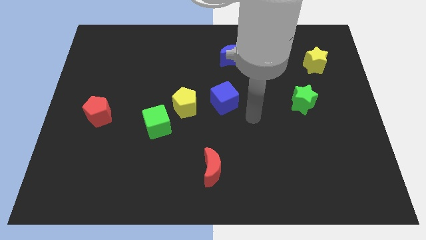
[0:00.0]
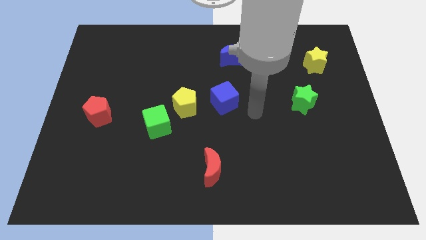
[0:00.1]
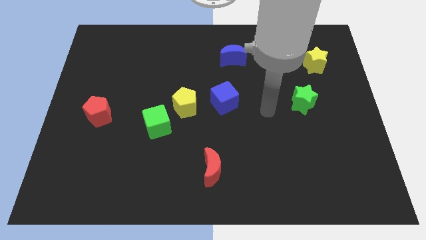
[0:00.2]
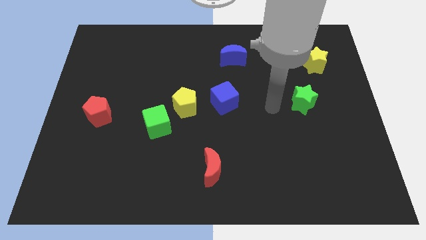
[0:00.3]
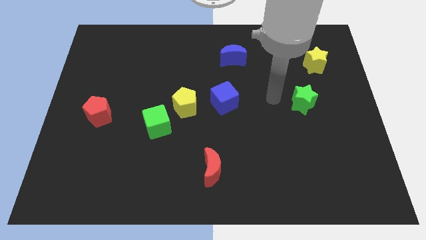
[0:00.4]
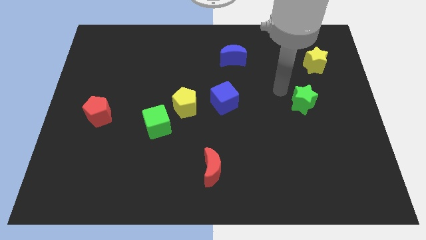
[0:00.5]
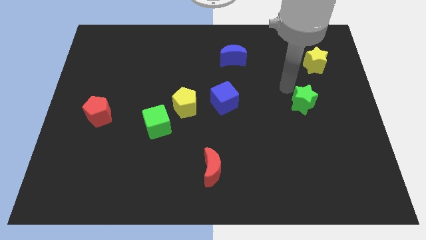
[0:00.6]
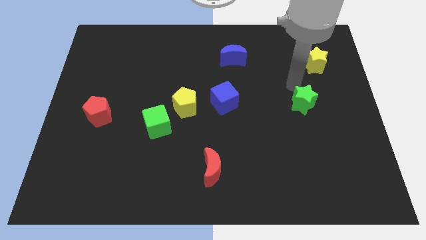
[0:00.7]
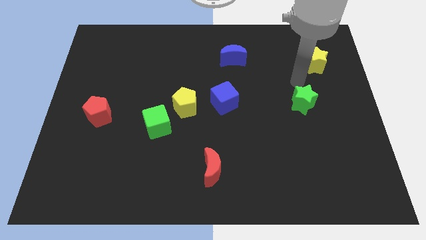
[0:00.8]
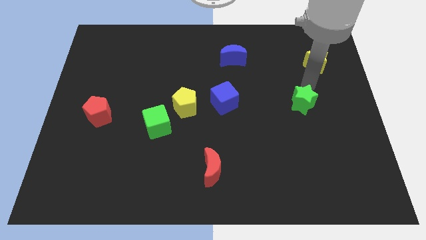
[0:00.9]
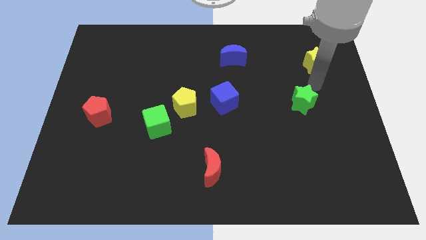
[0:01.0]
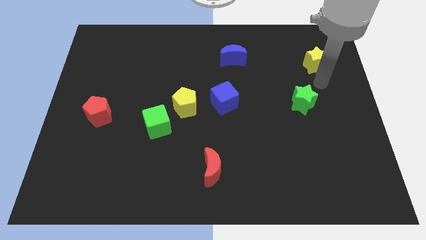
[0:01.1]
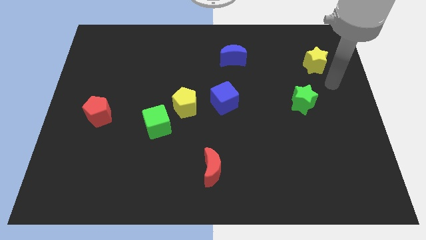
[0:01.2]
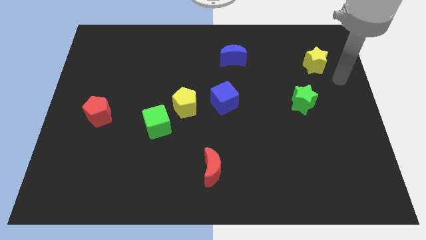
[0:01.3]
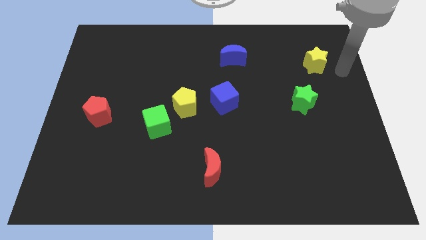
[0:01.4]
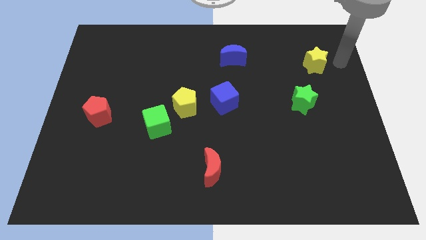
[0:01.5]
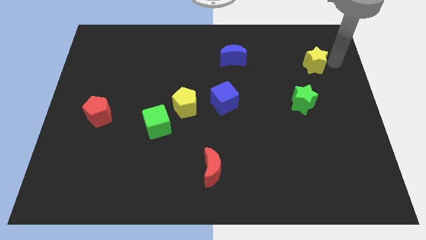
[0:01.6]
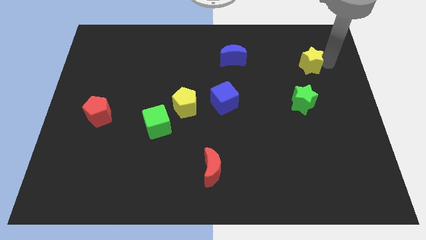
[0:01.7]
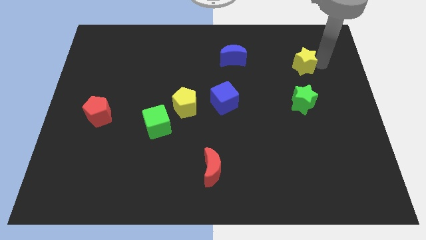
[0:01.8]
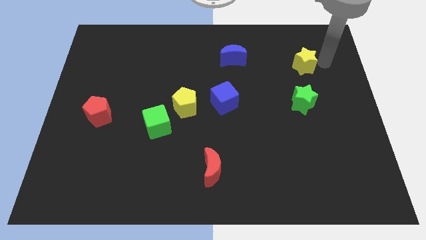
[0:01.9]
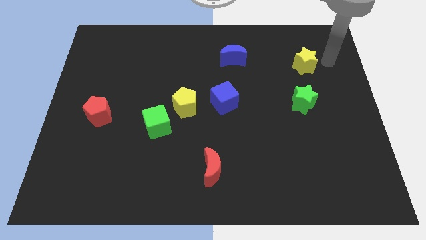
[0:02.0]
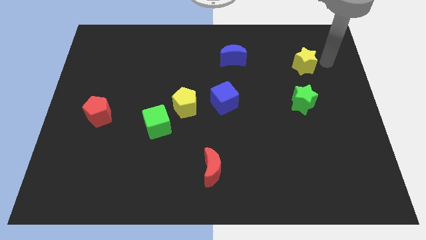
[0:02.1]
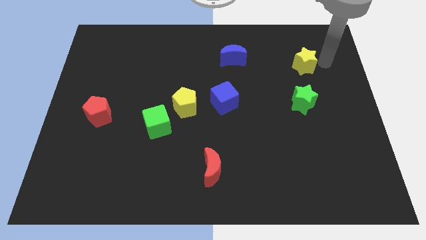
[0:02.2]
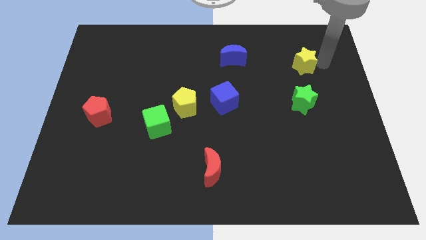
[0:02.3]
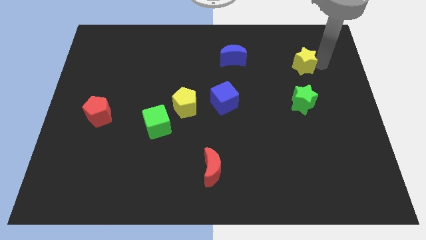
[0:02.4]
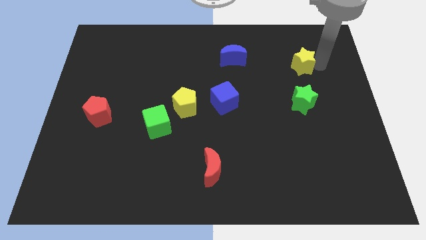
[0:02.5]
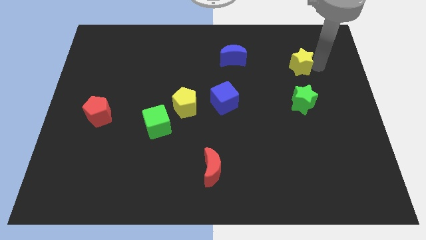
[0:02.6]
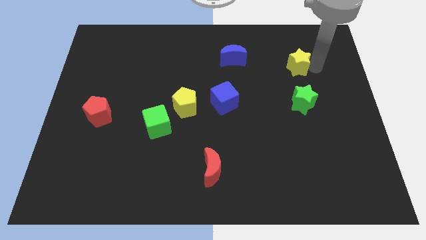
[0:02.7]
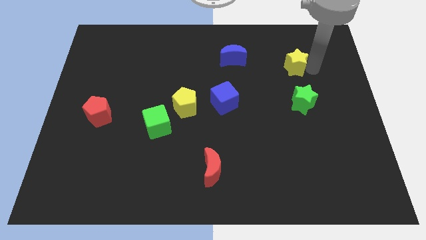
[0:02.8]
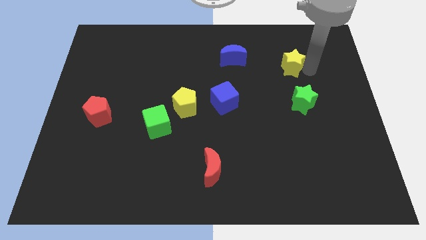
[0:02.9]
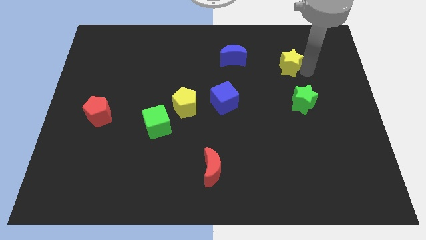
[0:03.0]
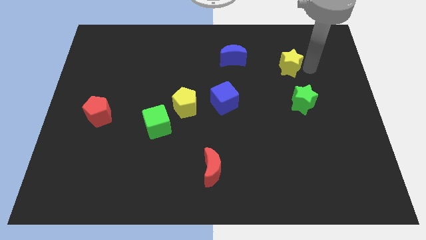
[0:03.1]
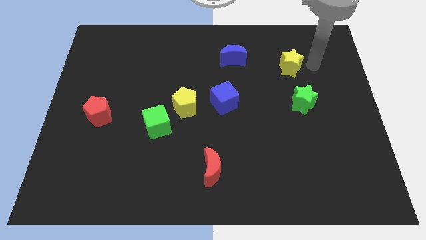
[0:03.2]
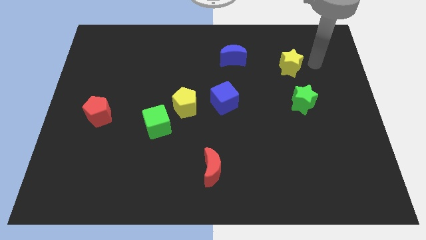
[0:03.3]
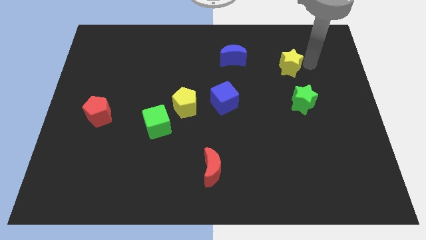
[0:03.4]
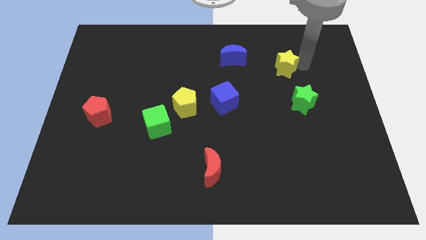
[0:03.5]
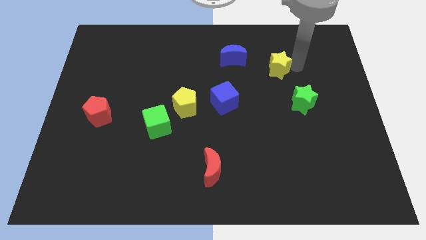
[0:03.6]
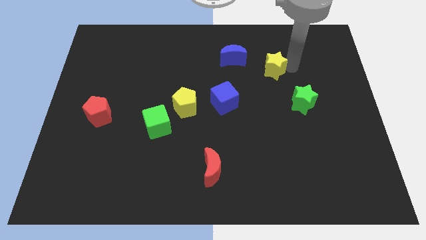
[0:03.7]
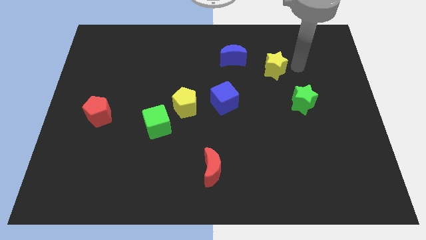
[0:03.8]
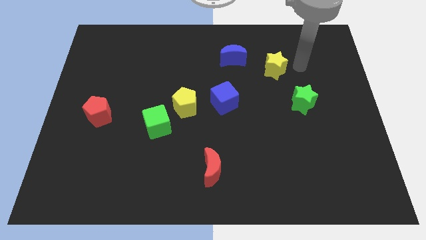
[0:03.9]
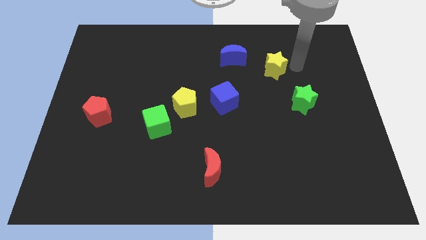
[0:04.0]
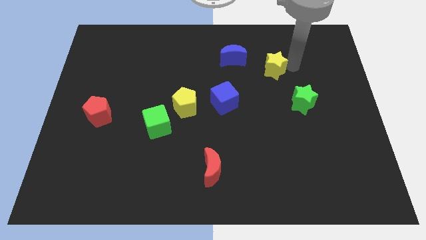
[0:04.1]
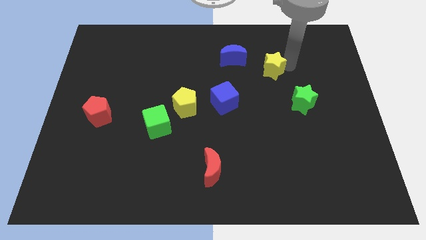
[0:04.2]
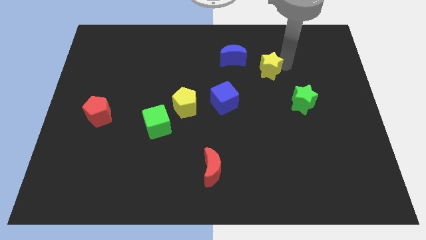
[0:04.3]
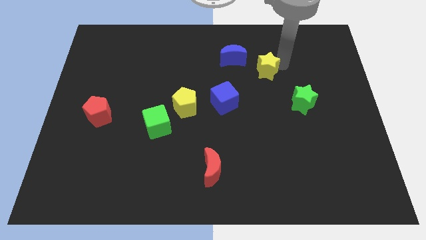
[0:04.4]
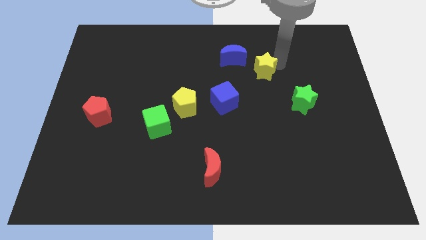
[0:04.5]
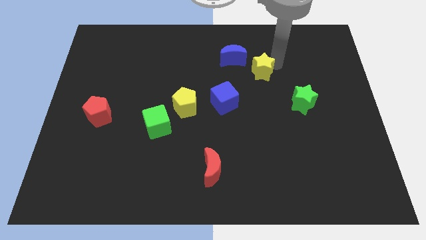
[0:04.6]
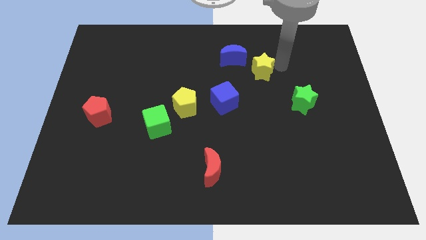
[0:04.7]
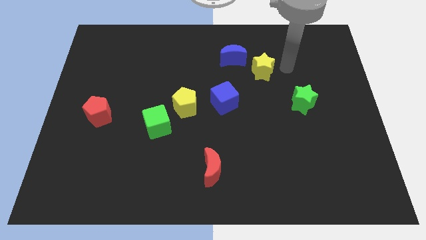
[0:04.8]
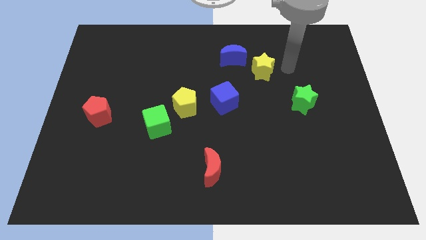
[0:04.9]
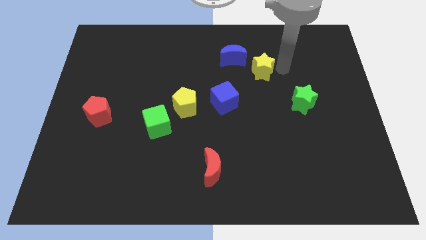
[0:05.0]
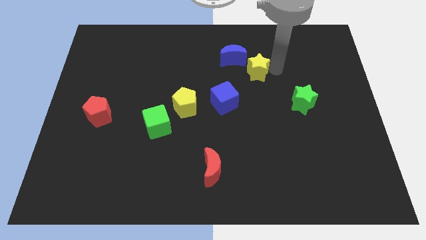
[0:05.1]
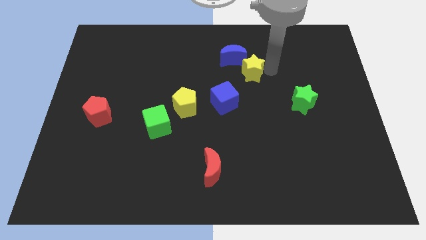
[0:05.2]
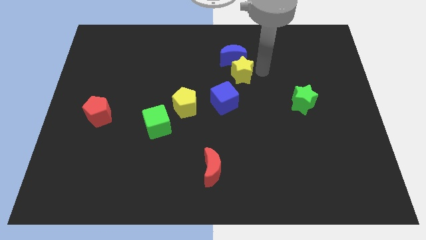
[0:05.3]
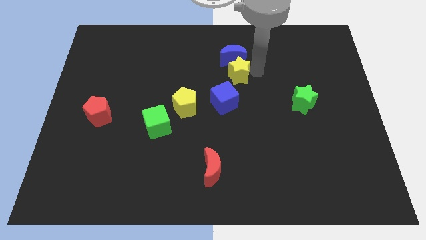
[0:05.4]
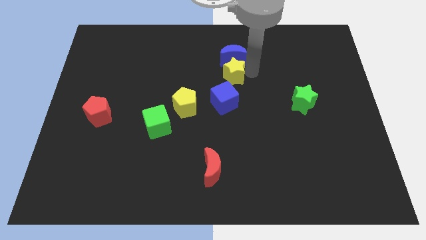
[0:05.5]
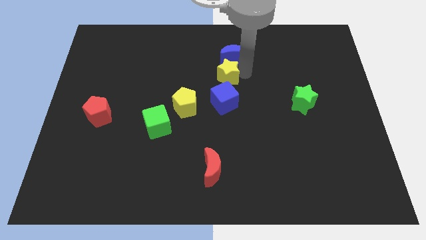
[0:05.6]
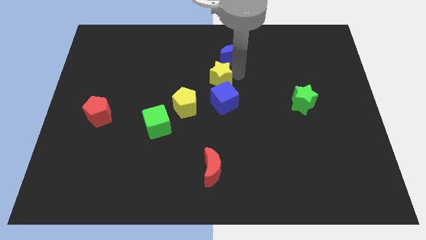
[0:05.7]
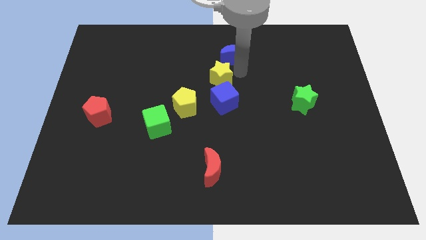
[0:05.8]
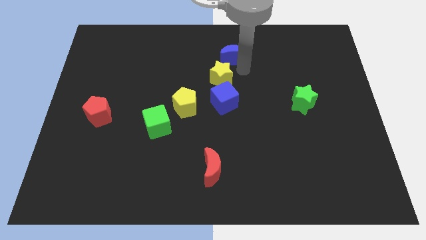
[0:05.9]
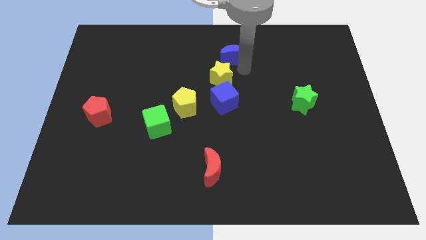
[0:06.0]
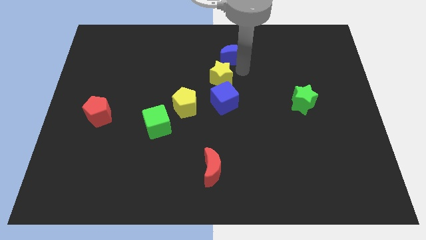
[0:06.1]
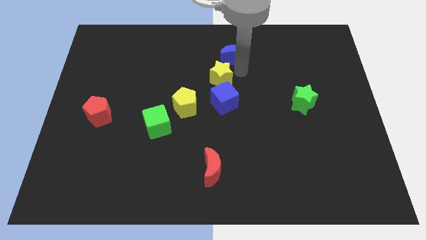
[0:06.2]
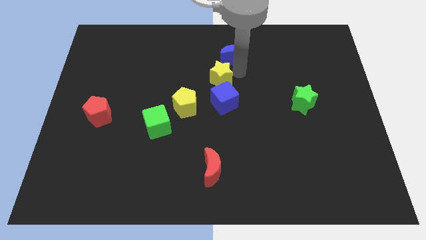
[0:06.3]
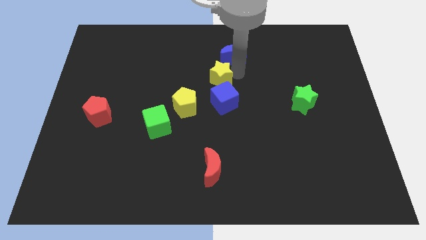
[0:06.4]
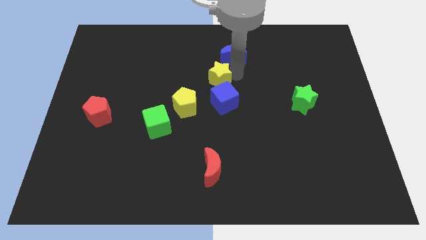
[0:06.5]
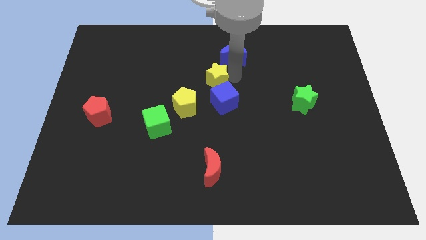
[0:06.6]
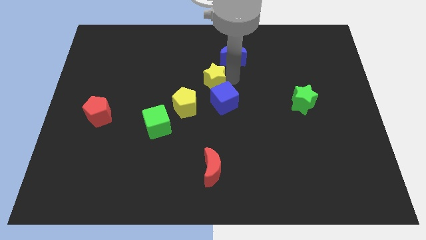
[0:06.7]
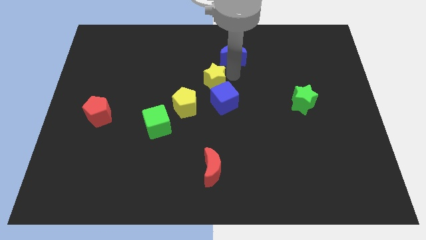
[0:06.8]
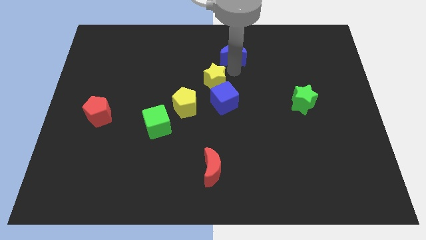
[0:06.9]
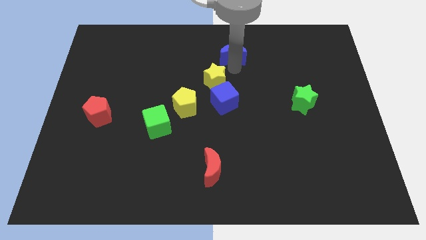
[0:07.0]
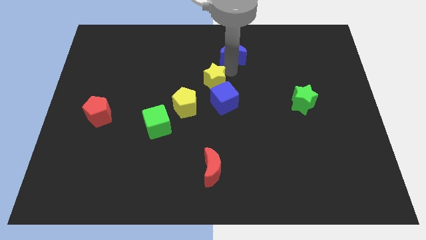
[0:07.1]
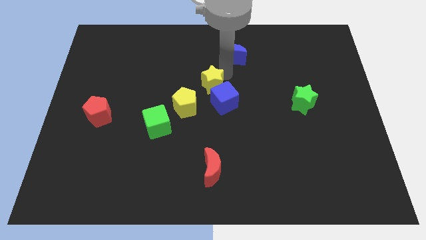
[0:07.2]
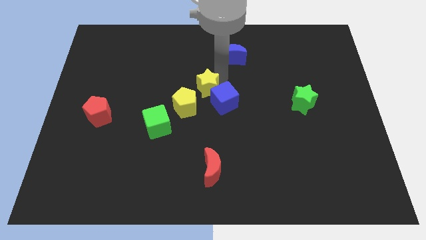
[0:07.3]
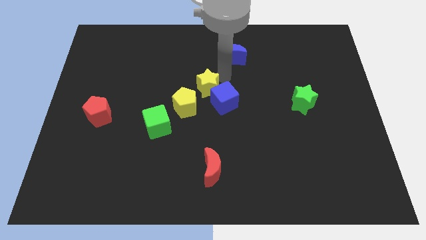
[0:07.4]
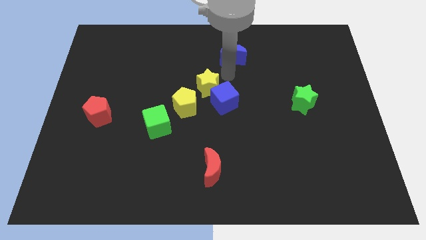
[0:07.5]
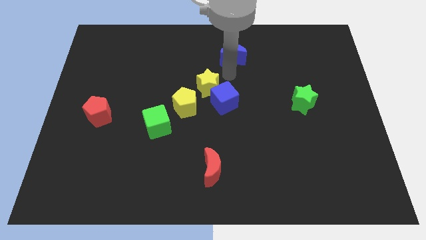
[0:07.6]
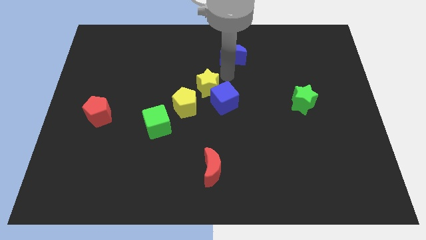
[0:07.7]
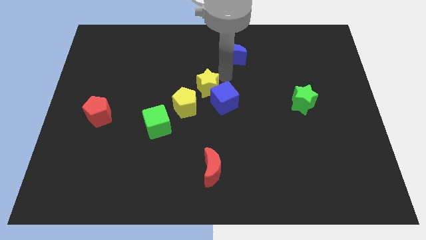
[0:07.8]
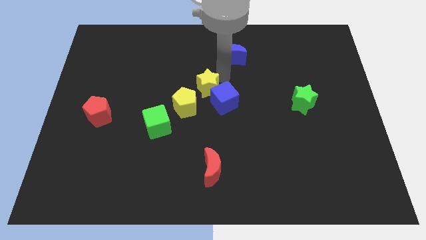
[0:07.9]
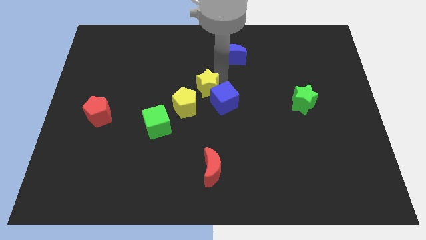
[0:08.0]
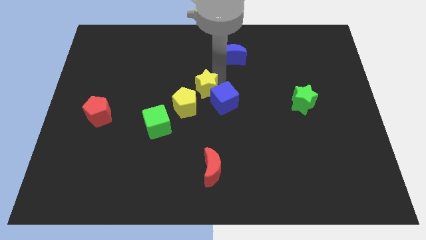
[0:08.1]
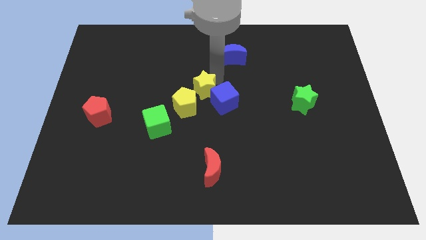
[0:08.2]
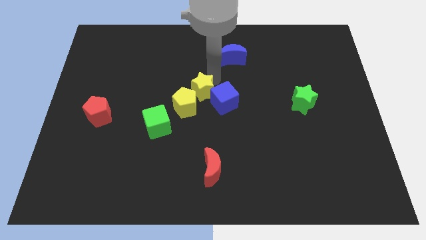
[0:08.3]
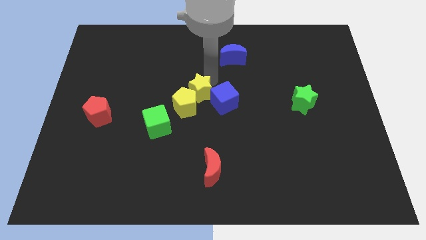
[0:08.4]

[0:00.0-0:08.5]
slide the yellow star close to the yellow pentagon
